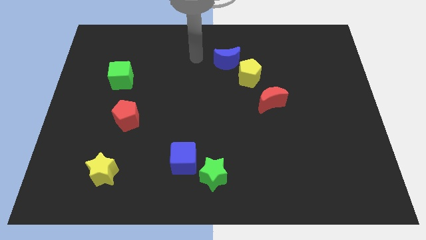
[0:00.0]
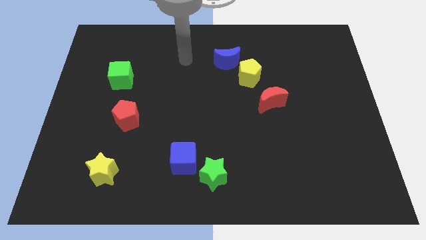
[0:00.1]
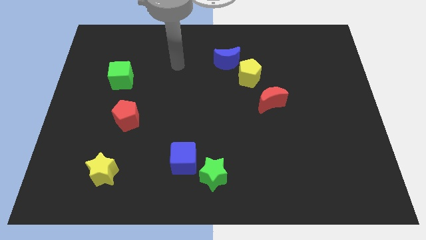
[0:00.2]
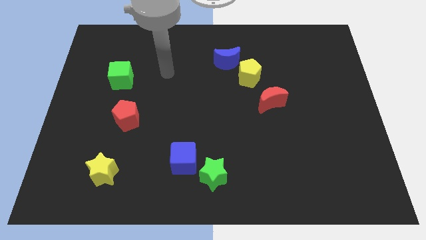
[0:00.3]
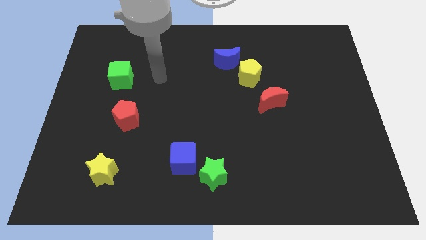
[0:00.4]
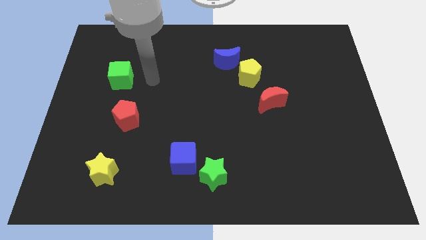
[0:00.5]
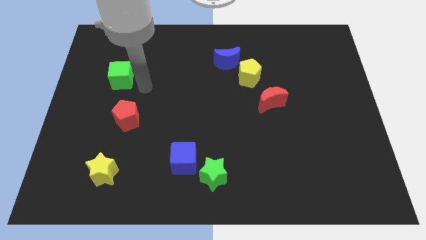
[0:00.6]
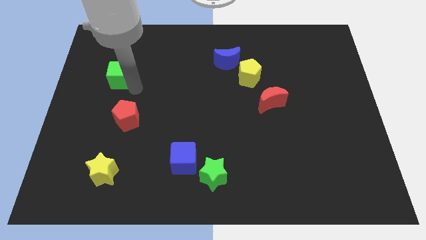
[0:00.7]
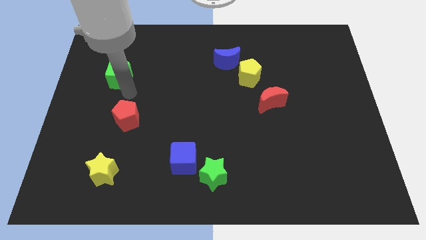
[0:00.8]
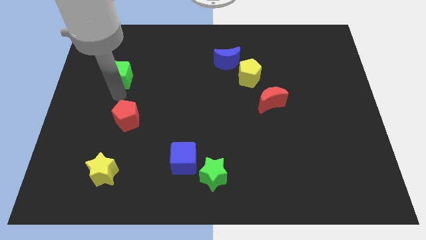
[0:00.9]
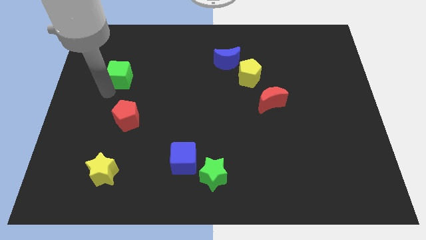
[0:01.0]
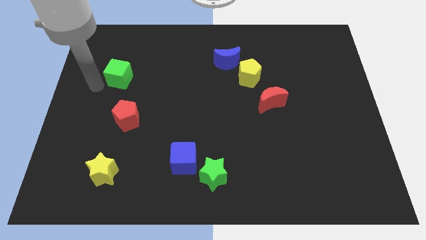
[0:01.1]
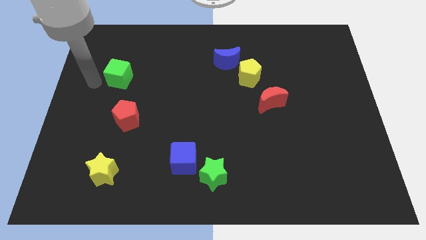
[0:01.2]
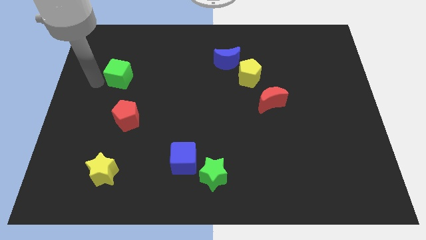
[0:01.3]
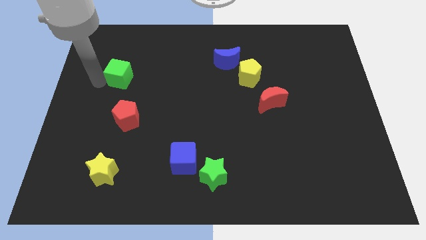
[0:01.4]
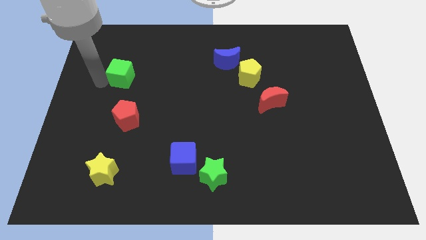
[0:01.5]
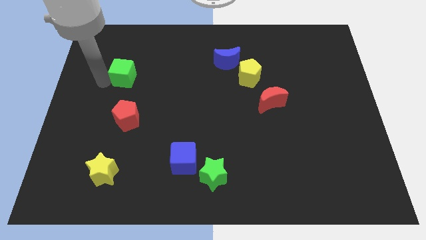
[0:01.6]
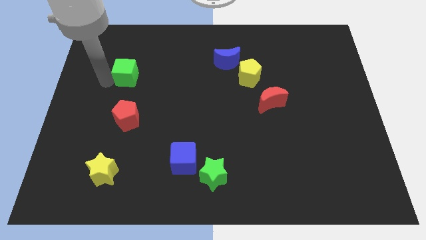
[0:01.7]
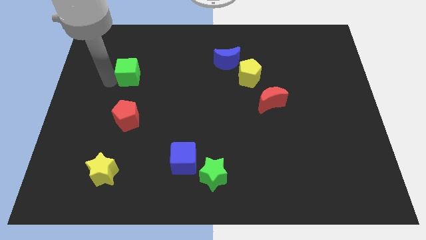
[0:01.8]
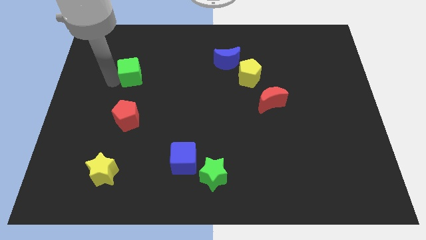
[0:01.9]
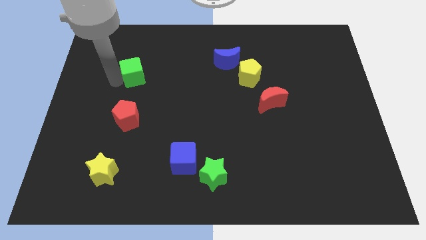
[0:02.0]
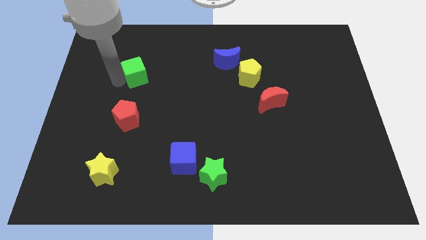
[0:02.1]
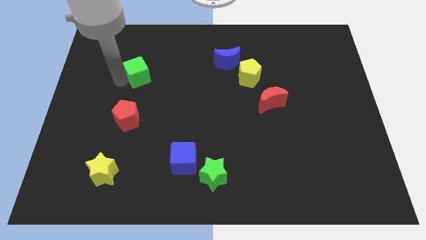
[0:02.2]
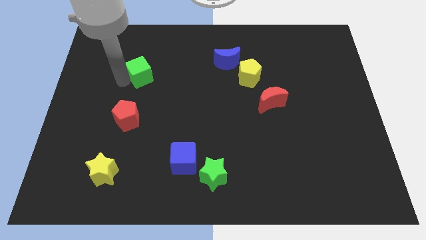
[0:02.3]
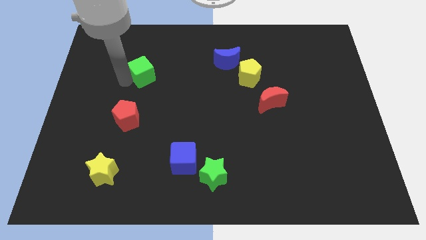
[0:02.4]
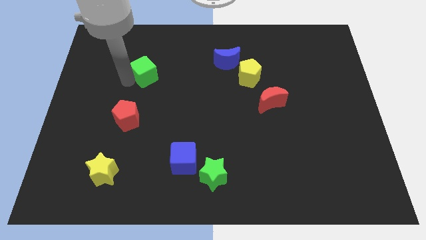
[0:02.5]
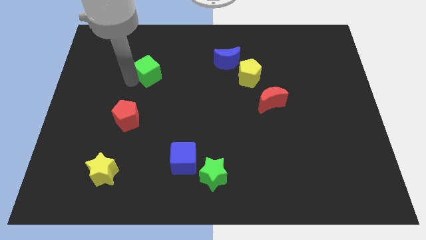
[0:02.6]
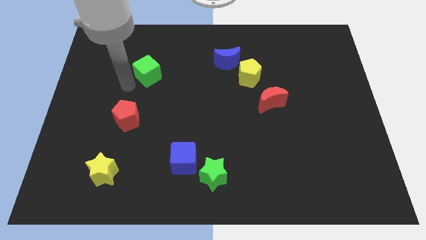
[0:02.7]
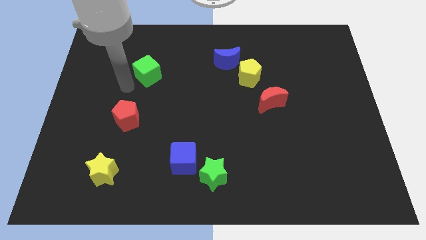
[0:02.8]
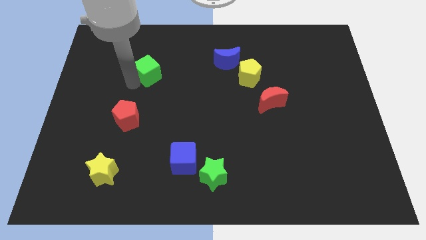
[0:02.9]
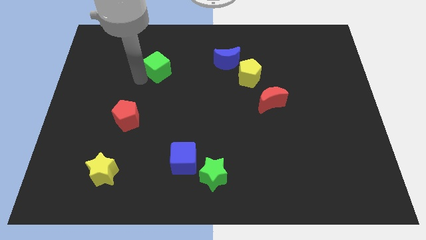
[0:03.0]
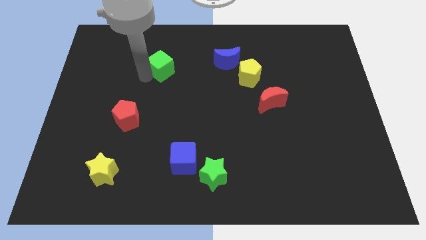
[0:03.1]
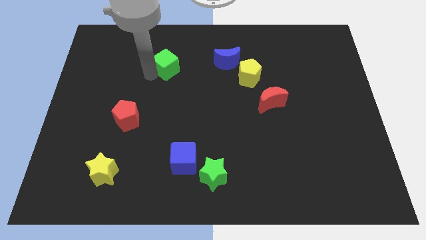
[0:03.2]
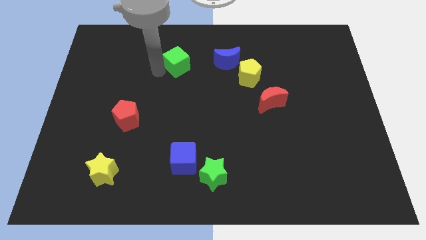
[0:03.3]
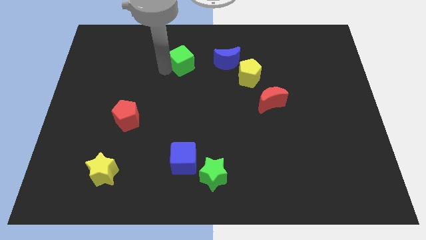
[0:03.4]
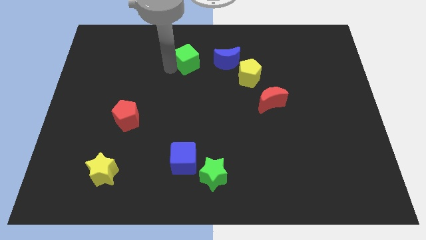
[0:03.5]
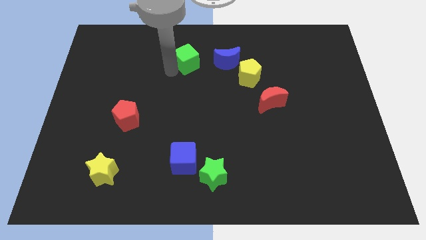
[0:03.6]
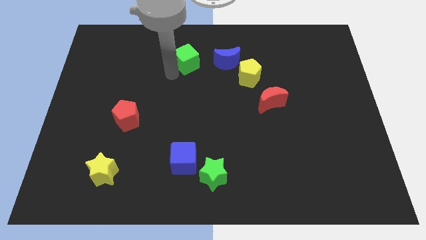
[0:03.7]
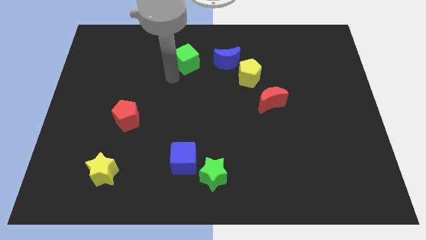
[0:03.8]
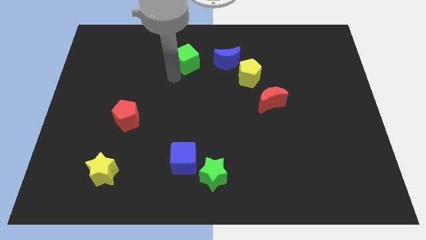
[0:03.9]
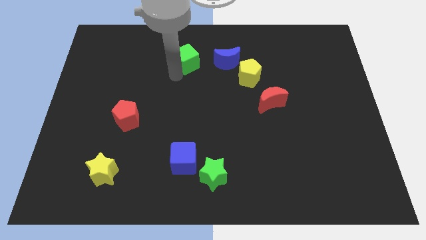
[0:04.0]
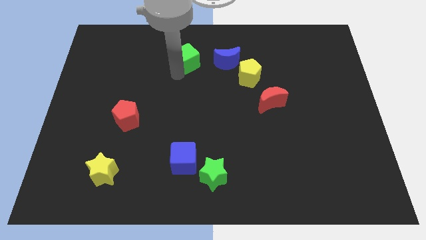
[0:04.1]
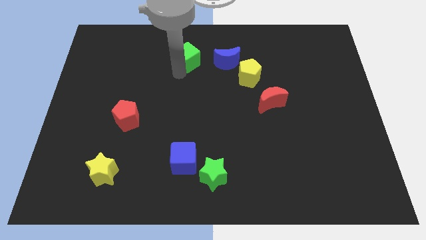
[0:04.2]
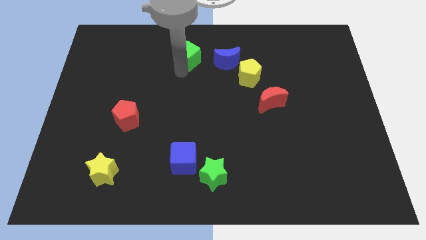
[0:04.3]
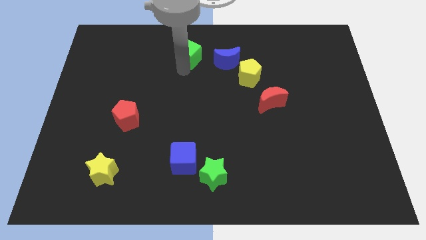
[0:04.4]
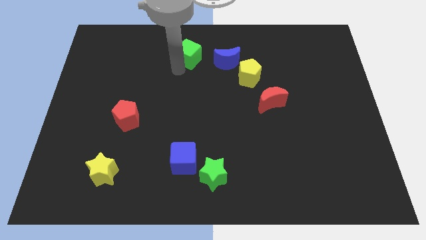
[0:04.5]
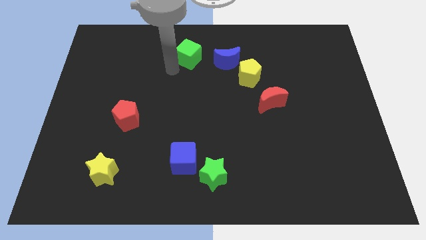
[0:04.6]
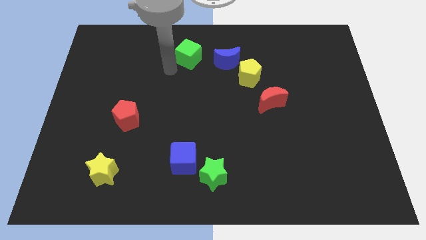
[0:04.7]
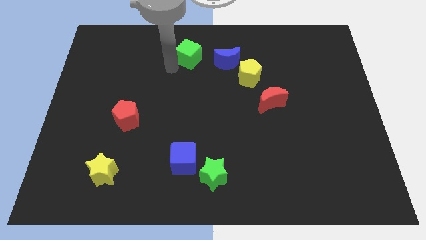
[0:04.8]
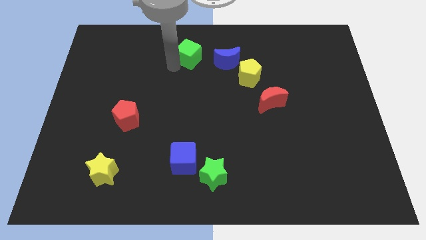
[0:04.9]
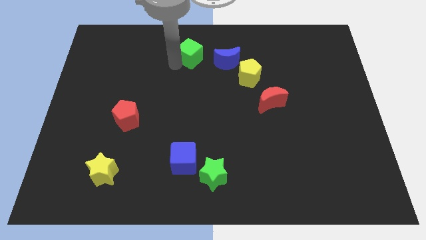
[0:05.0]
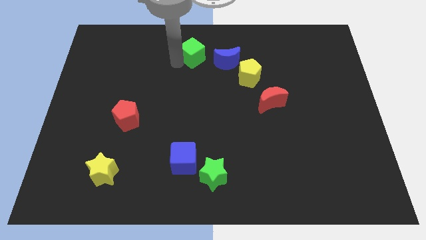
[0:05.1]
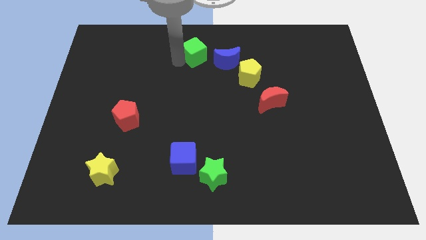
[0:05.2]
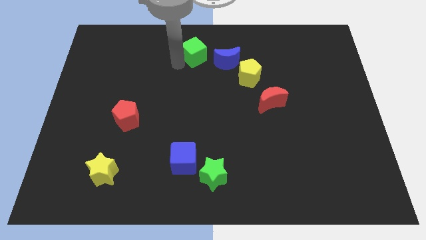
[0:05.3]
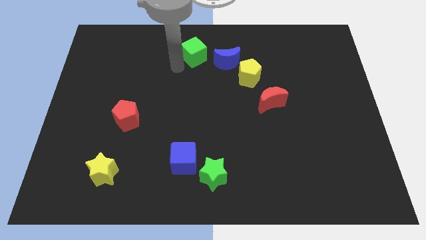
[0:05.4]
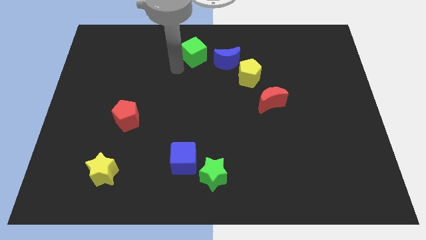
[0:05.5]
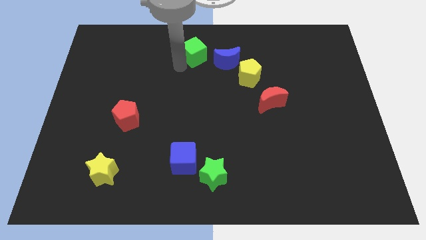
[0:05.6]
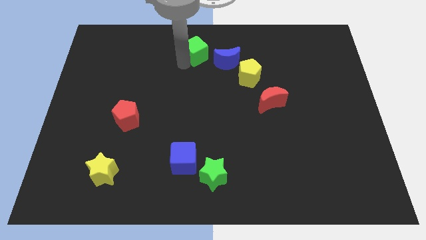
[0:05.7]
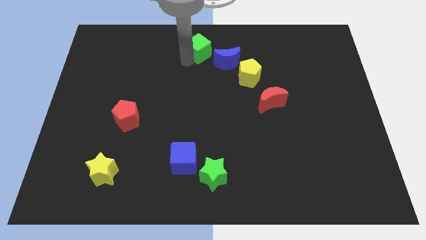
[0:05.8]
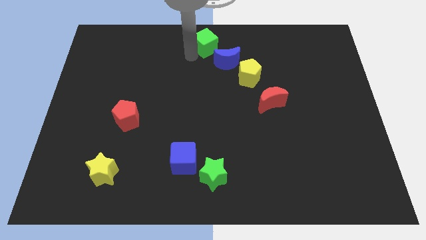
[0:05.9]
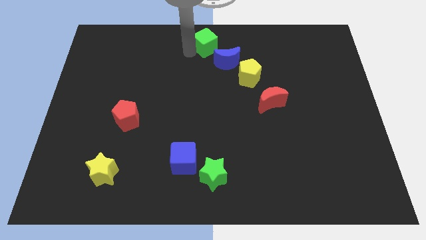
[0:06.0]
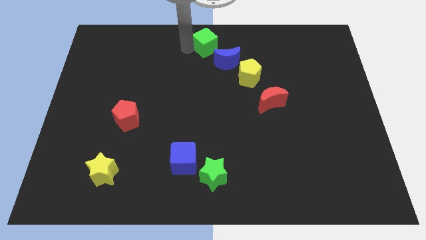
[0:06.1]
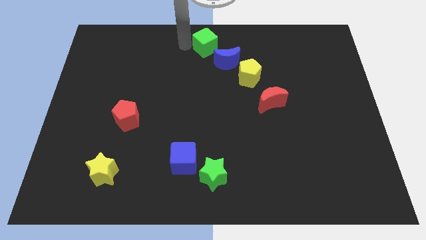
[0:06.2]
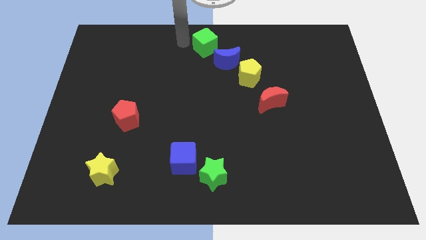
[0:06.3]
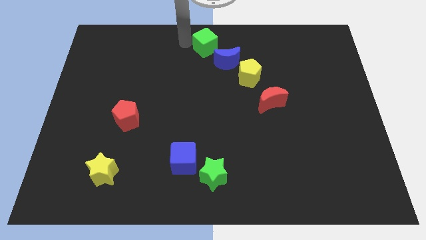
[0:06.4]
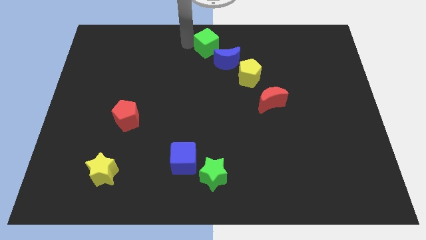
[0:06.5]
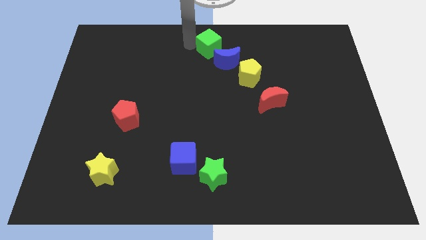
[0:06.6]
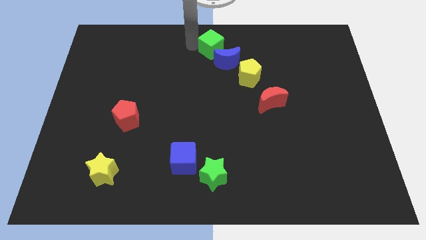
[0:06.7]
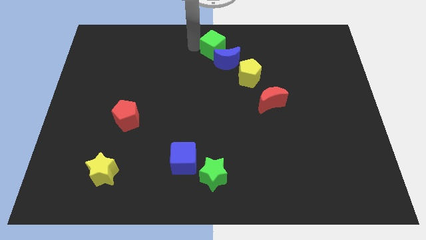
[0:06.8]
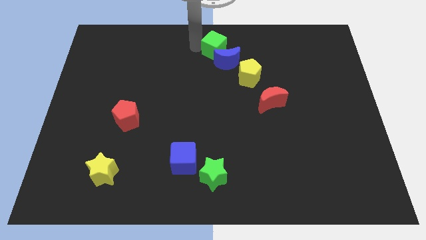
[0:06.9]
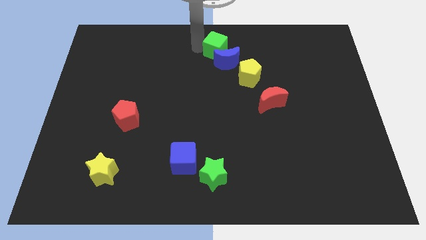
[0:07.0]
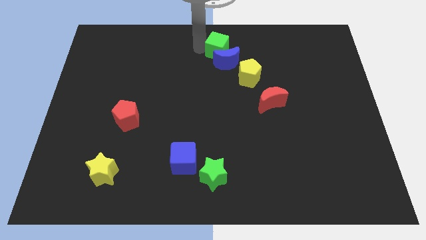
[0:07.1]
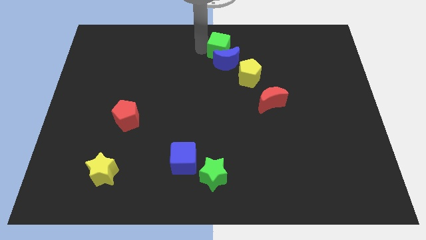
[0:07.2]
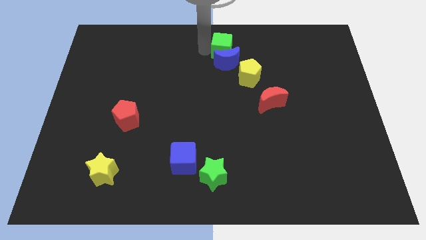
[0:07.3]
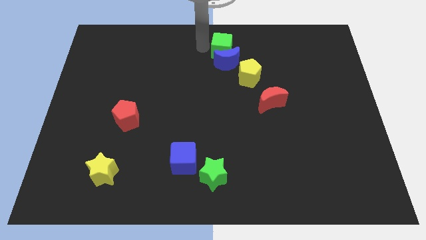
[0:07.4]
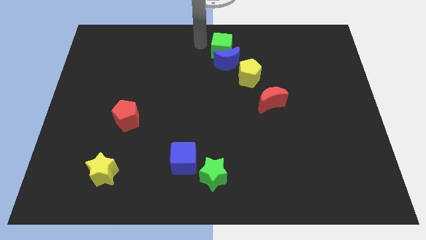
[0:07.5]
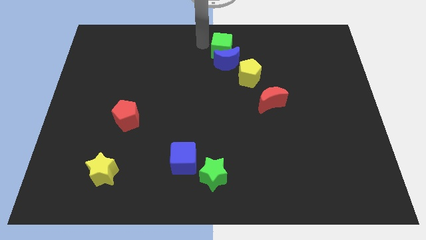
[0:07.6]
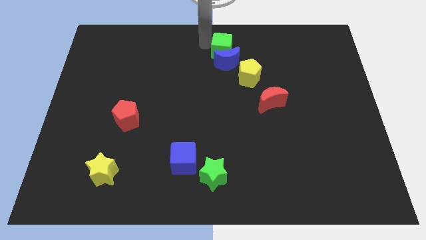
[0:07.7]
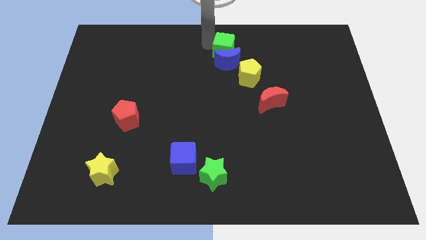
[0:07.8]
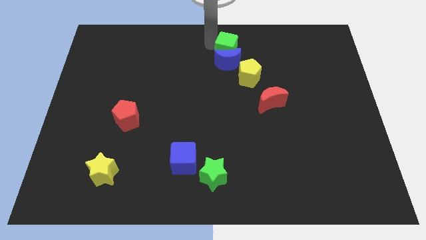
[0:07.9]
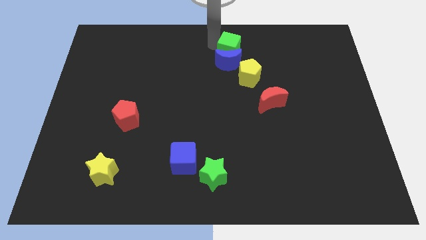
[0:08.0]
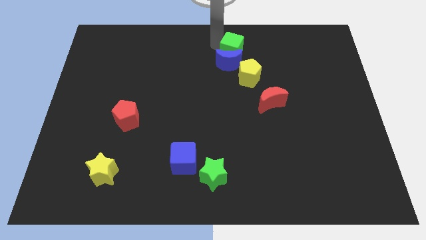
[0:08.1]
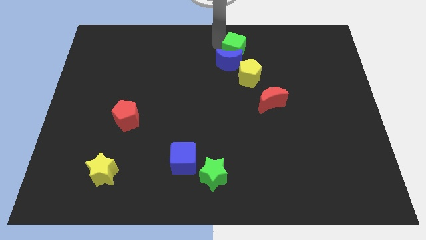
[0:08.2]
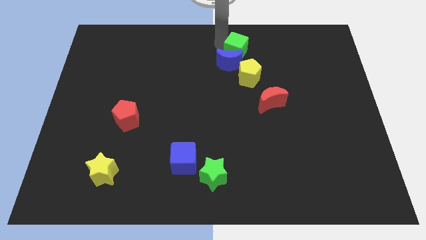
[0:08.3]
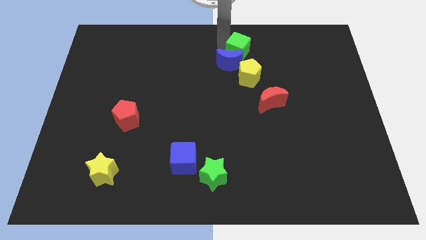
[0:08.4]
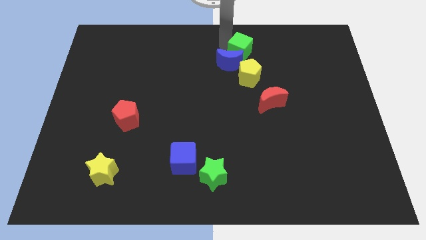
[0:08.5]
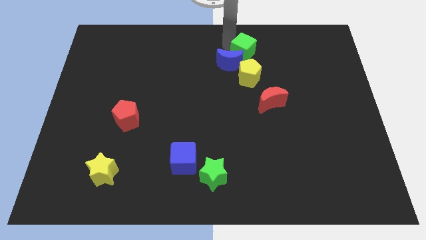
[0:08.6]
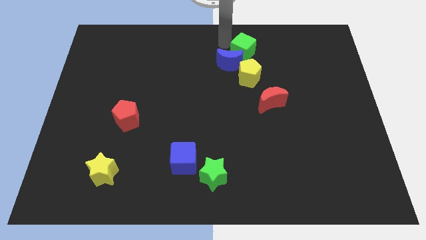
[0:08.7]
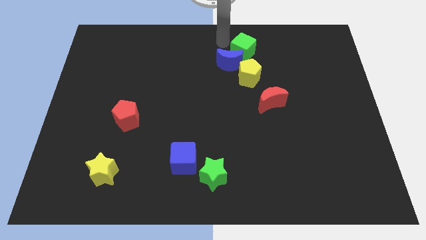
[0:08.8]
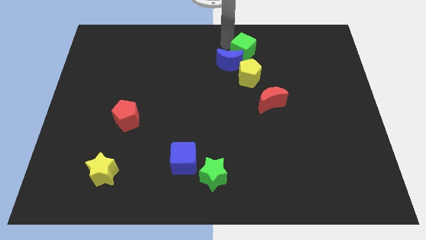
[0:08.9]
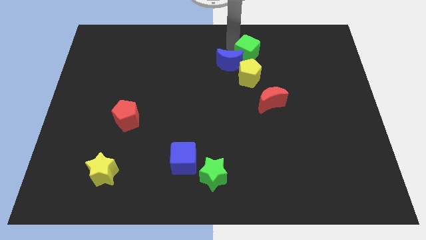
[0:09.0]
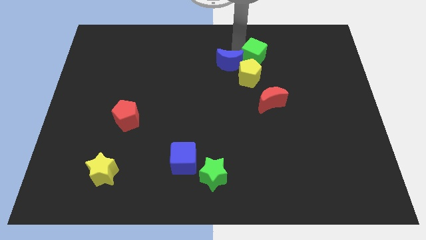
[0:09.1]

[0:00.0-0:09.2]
push the green cube to the top right side of the yellow pentagon
